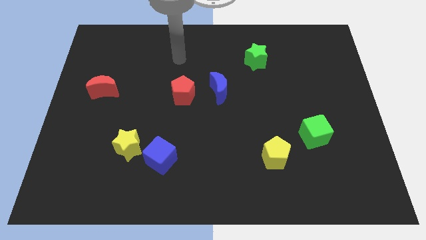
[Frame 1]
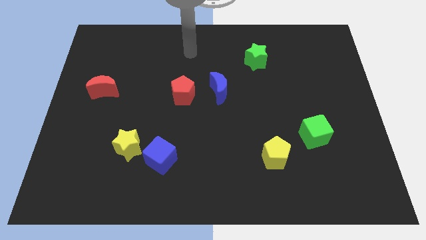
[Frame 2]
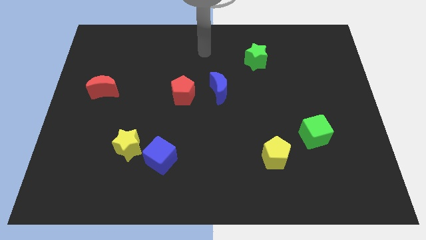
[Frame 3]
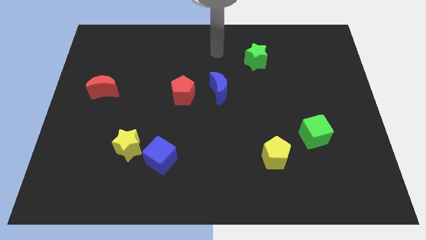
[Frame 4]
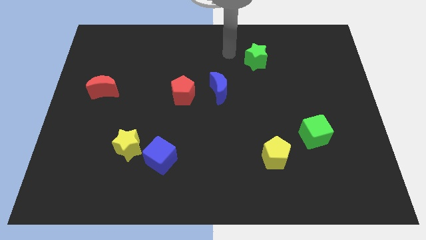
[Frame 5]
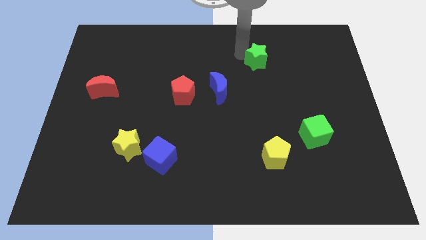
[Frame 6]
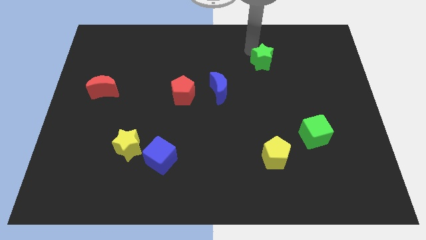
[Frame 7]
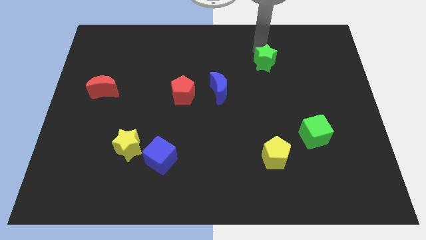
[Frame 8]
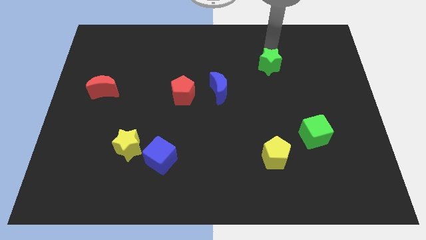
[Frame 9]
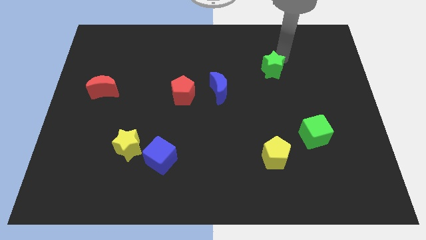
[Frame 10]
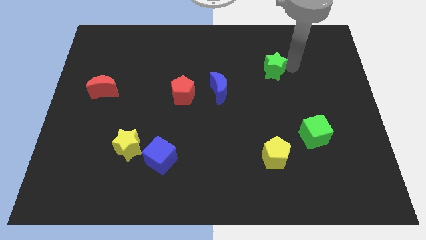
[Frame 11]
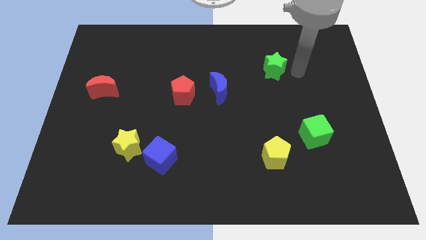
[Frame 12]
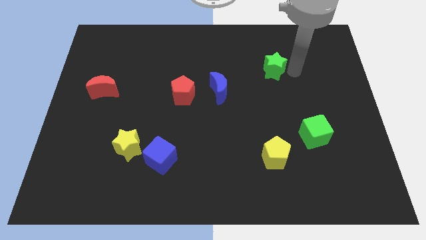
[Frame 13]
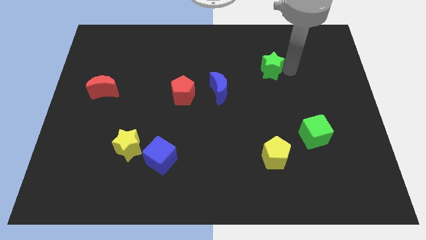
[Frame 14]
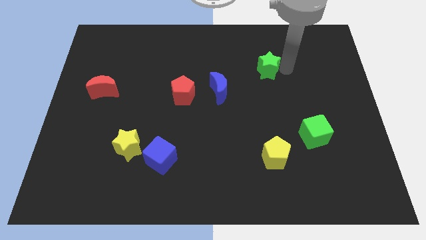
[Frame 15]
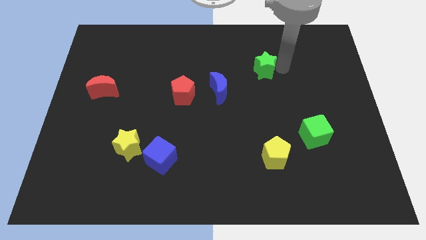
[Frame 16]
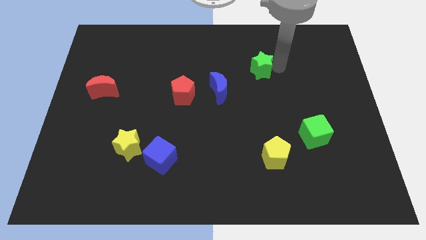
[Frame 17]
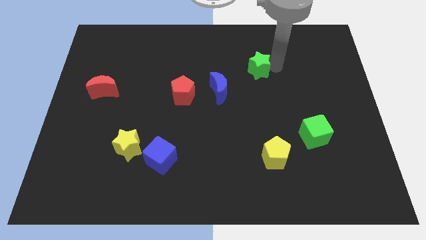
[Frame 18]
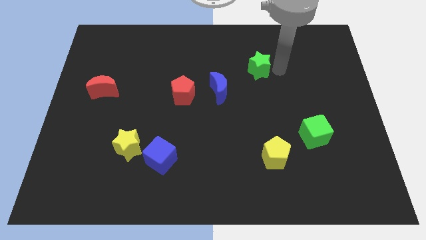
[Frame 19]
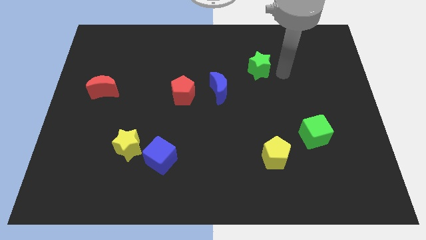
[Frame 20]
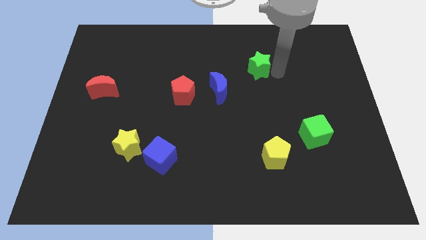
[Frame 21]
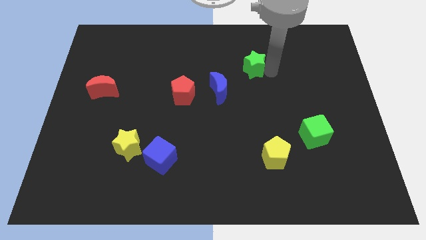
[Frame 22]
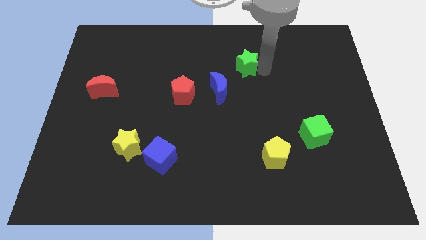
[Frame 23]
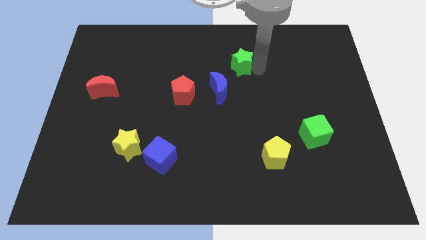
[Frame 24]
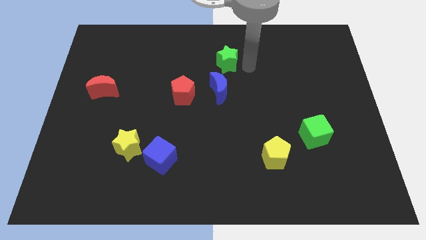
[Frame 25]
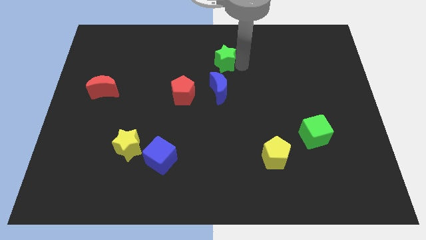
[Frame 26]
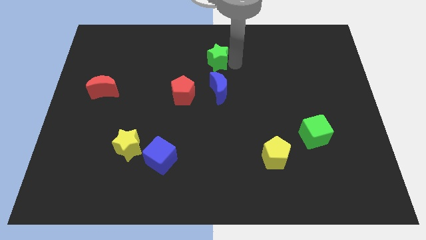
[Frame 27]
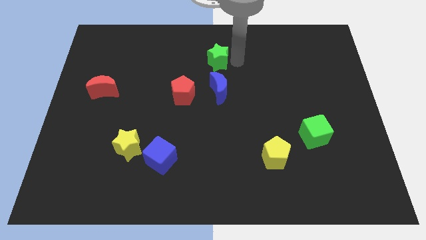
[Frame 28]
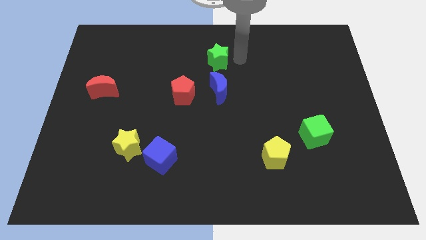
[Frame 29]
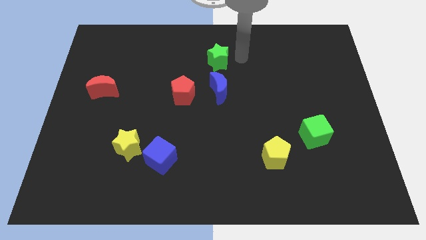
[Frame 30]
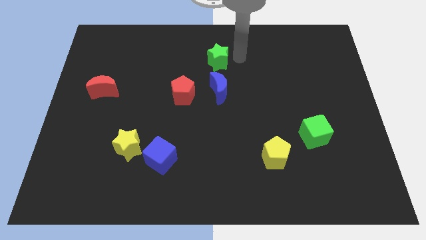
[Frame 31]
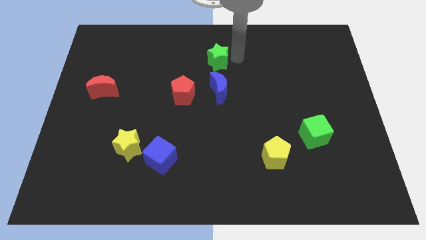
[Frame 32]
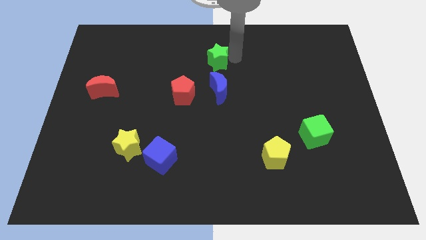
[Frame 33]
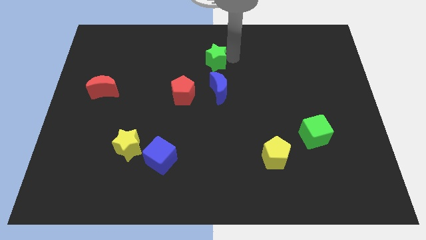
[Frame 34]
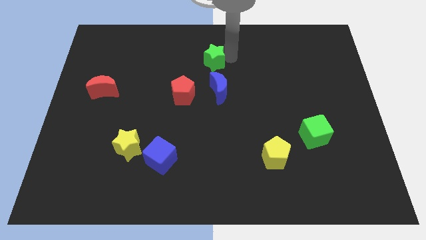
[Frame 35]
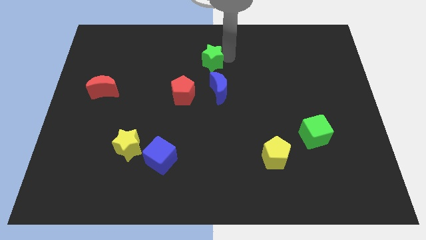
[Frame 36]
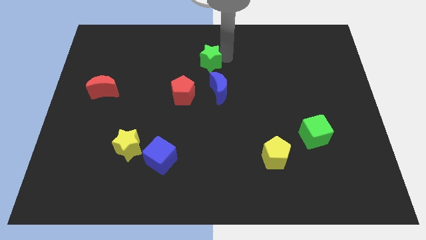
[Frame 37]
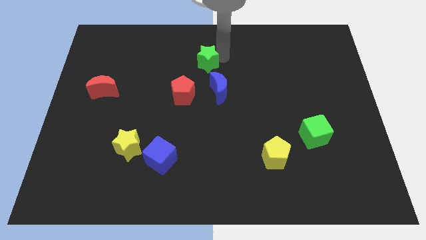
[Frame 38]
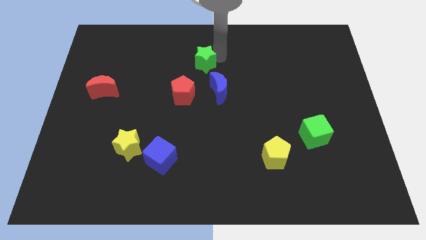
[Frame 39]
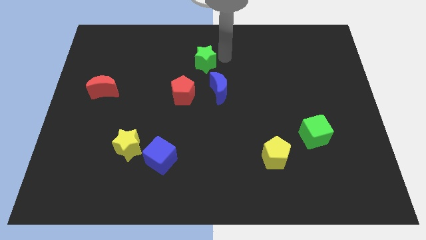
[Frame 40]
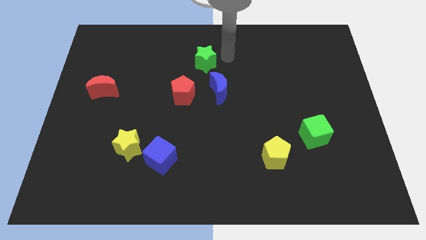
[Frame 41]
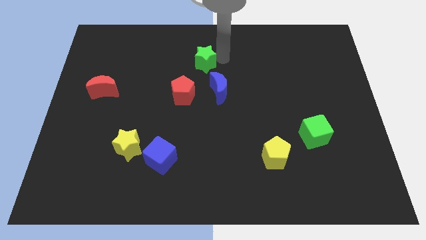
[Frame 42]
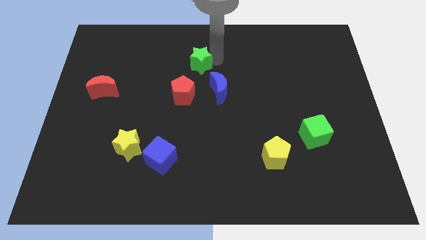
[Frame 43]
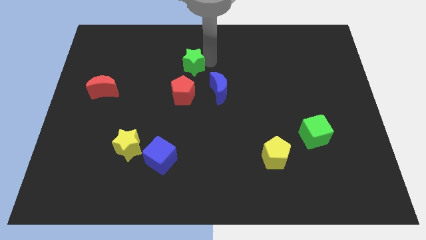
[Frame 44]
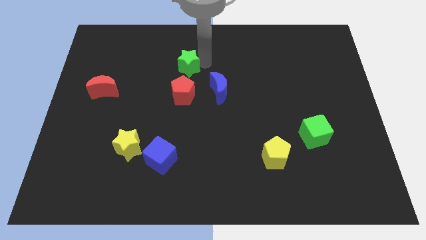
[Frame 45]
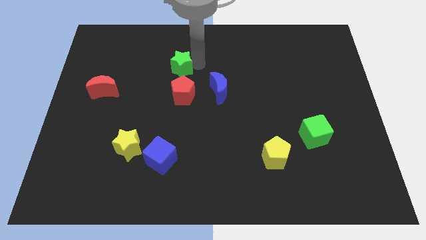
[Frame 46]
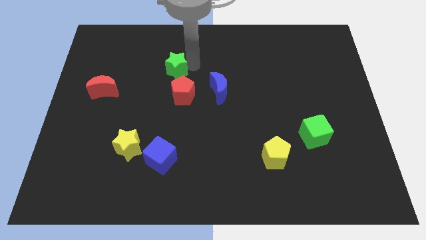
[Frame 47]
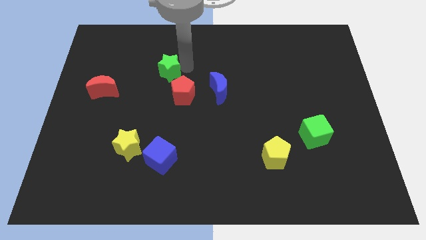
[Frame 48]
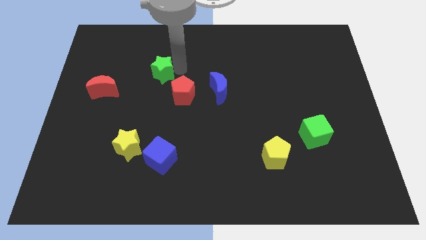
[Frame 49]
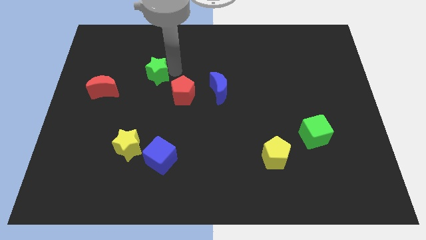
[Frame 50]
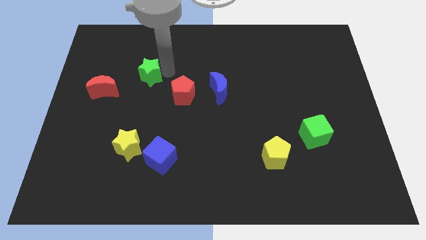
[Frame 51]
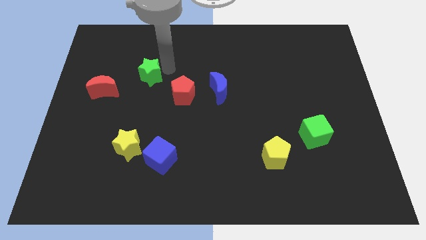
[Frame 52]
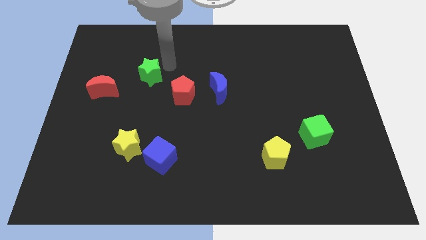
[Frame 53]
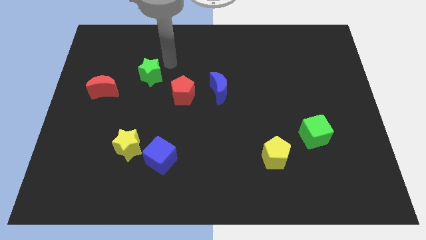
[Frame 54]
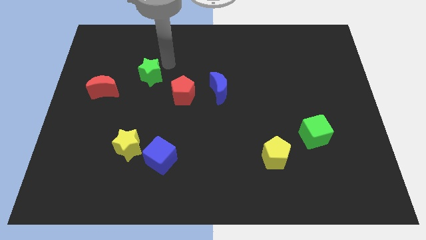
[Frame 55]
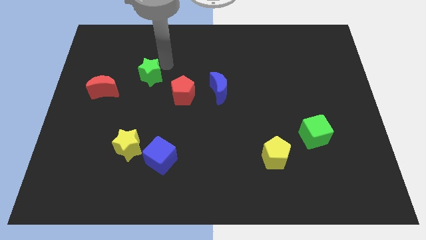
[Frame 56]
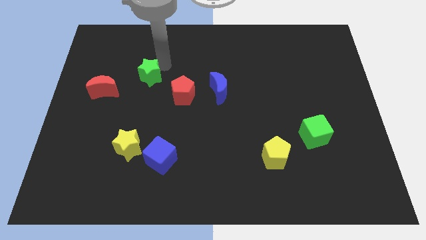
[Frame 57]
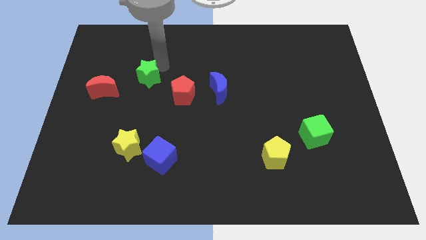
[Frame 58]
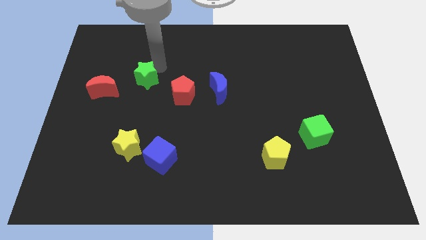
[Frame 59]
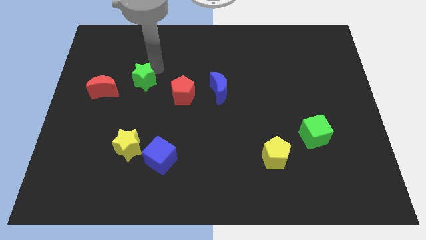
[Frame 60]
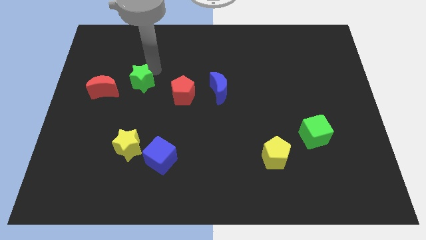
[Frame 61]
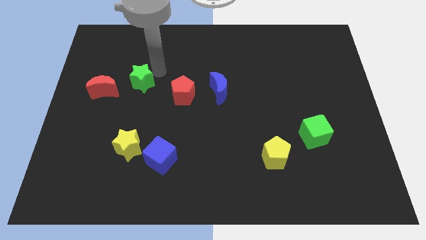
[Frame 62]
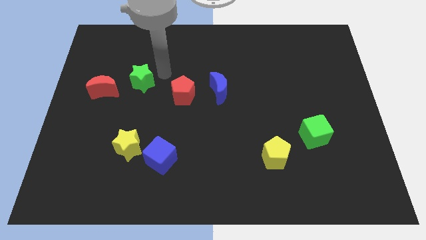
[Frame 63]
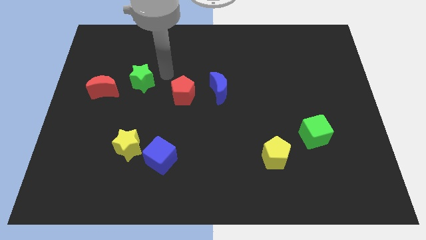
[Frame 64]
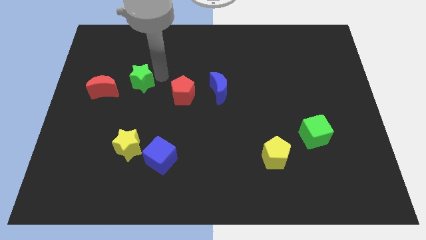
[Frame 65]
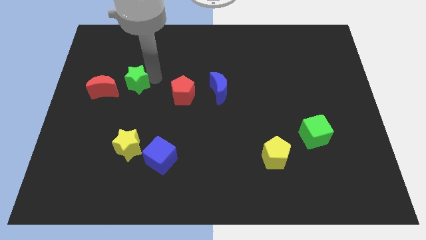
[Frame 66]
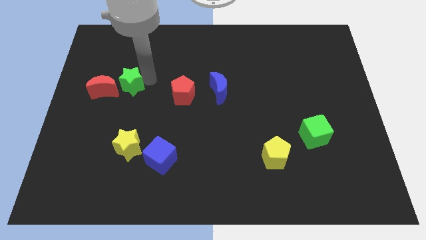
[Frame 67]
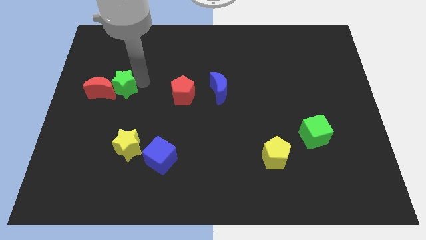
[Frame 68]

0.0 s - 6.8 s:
push the green star next to the red moon
